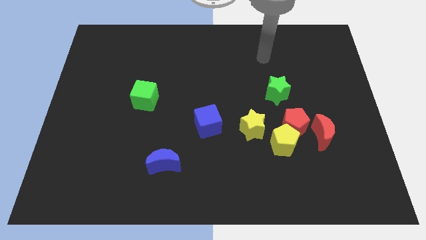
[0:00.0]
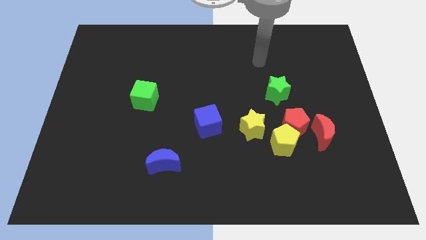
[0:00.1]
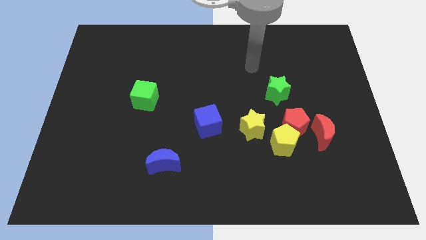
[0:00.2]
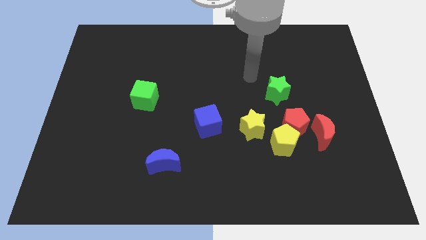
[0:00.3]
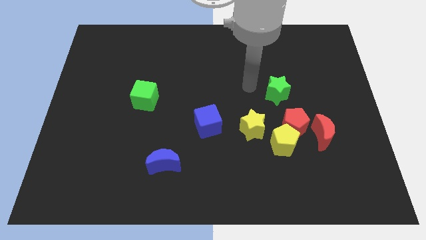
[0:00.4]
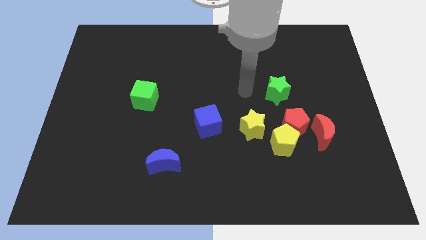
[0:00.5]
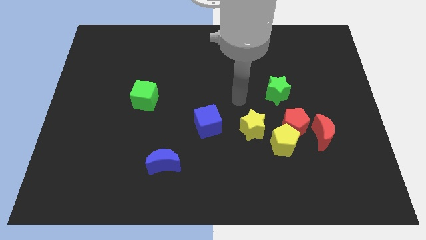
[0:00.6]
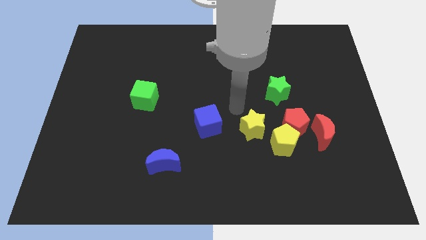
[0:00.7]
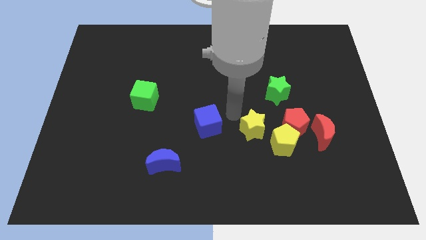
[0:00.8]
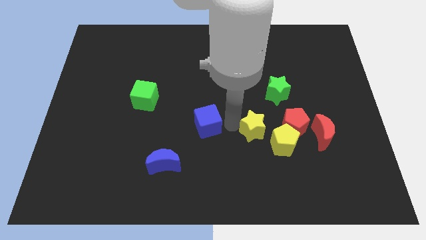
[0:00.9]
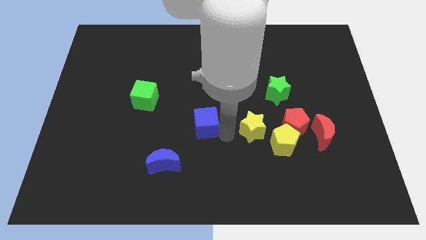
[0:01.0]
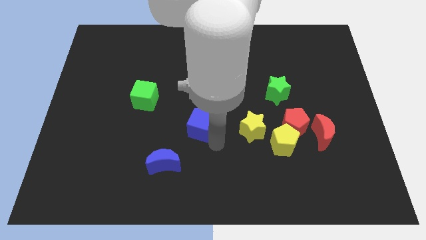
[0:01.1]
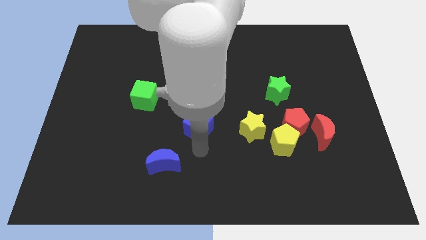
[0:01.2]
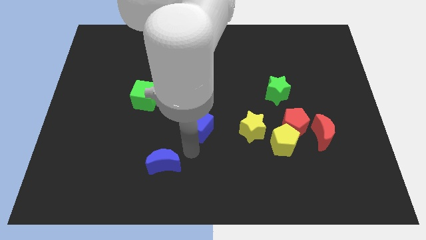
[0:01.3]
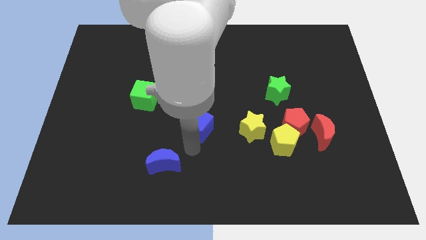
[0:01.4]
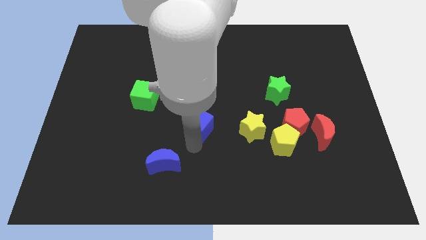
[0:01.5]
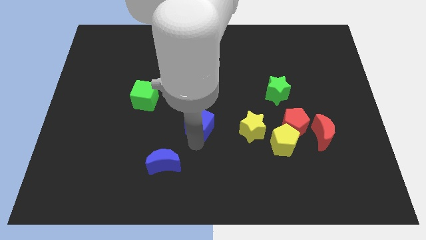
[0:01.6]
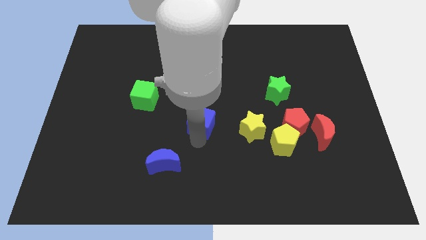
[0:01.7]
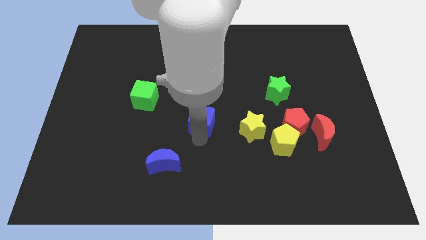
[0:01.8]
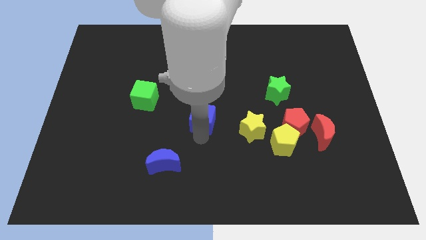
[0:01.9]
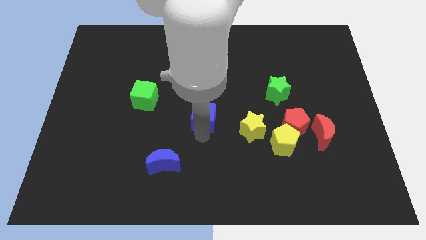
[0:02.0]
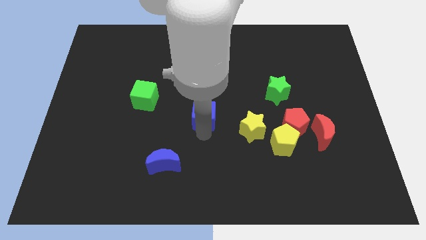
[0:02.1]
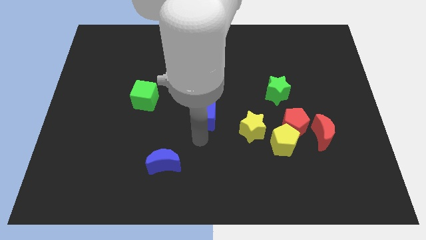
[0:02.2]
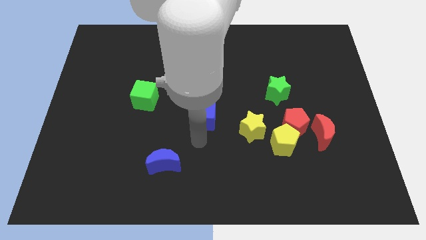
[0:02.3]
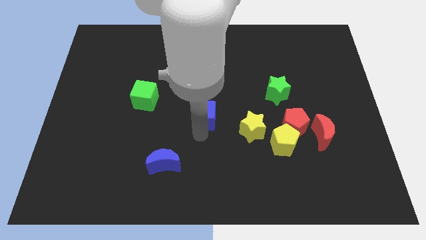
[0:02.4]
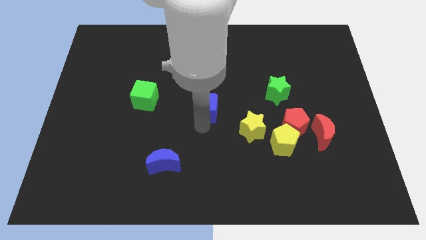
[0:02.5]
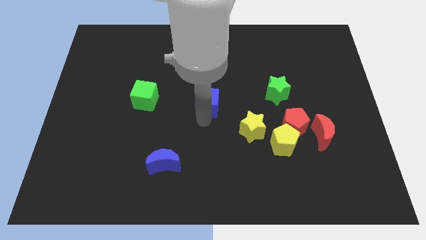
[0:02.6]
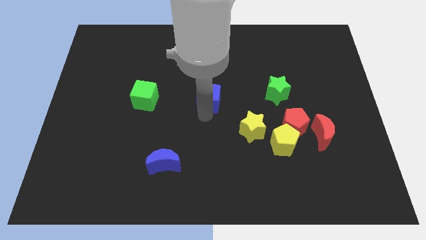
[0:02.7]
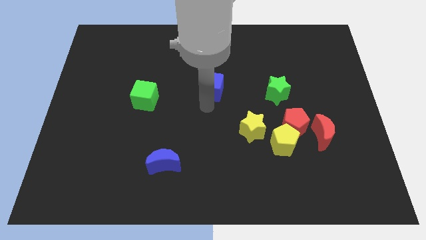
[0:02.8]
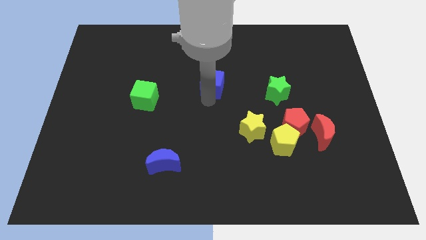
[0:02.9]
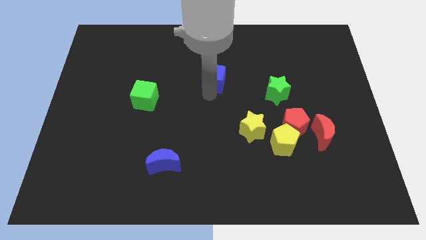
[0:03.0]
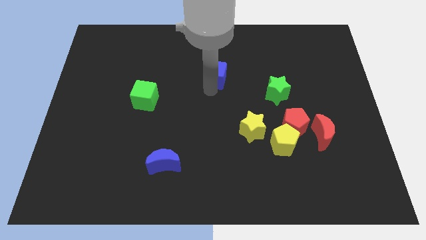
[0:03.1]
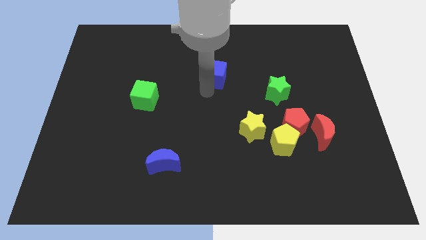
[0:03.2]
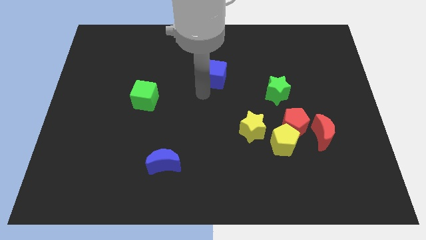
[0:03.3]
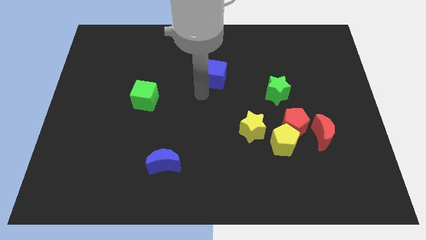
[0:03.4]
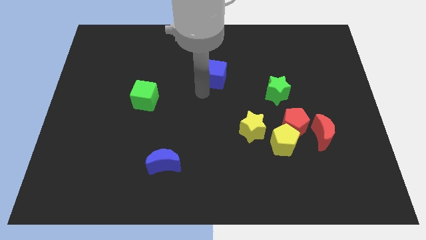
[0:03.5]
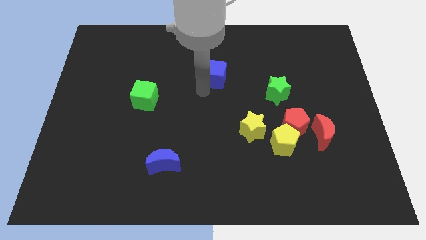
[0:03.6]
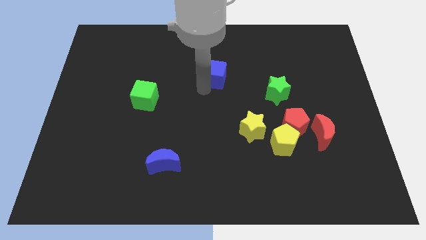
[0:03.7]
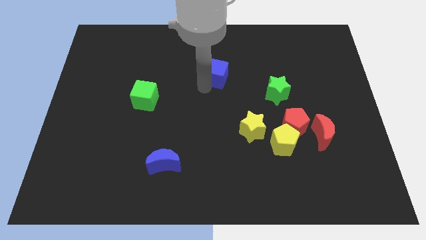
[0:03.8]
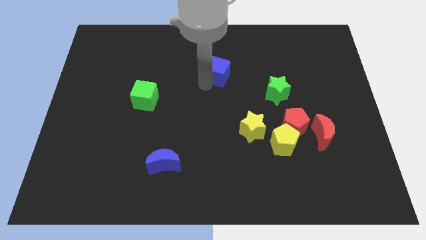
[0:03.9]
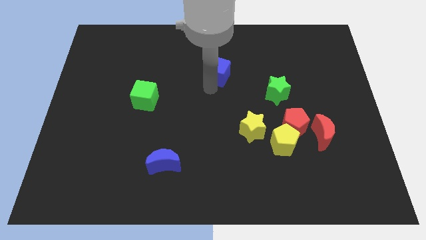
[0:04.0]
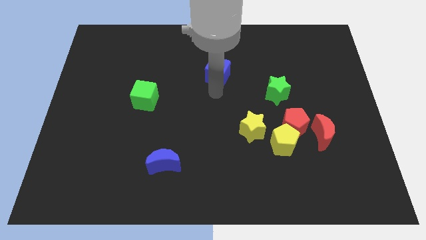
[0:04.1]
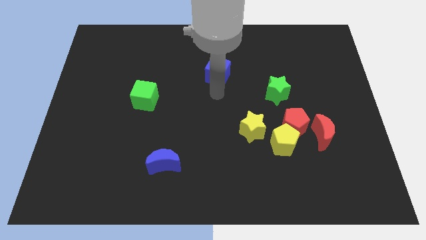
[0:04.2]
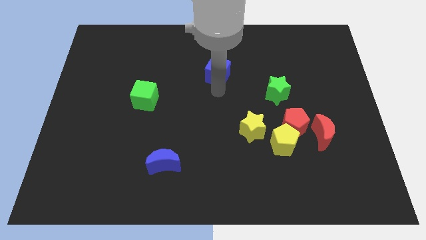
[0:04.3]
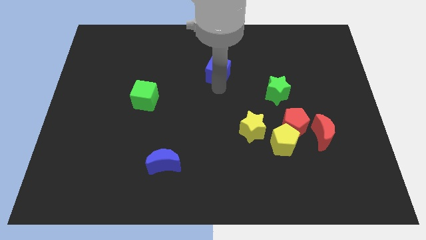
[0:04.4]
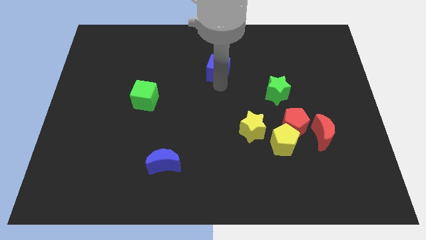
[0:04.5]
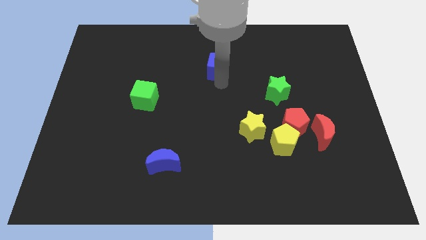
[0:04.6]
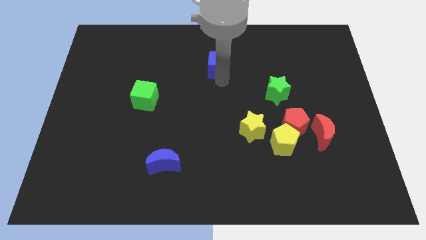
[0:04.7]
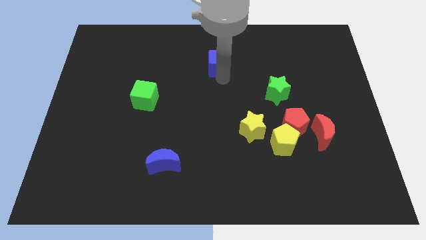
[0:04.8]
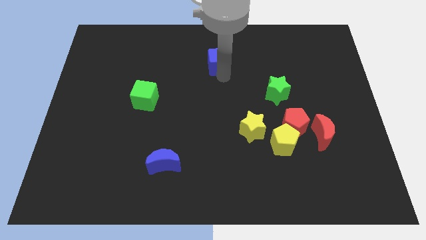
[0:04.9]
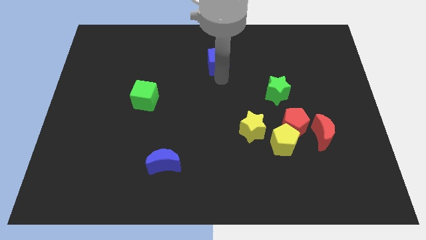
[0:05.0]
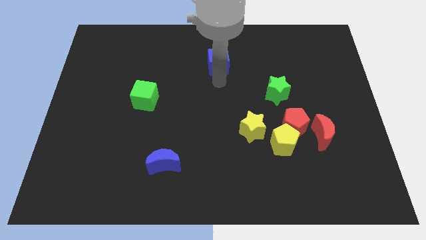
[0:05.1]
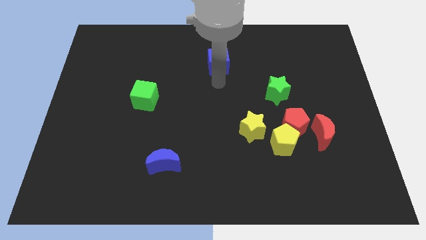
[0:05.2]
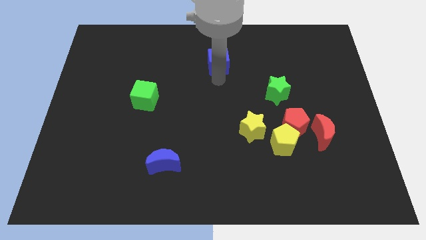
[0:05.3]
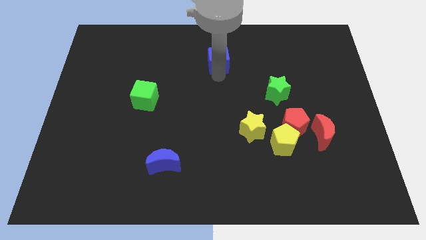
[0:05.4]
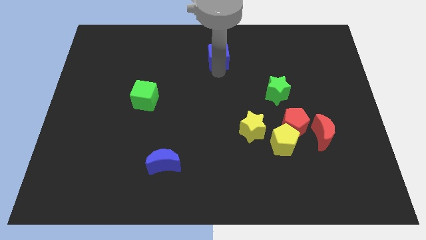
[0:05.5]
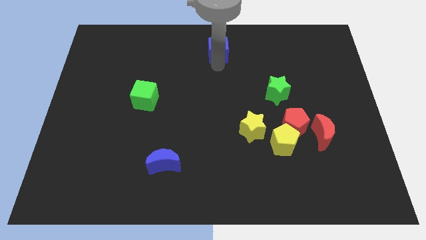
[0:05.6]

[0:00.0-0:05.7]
slide the blue cube to the towards your base

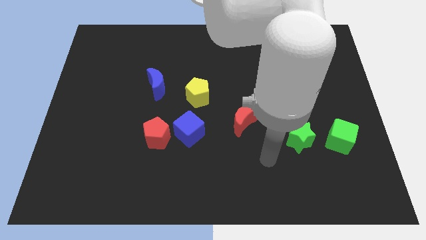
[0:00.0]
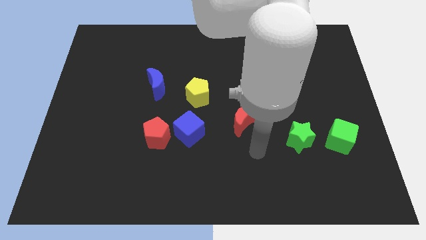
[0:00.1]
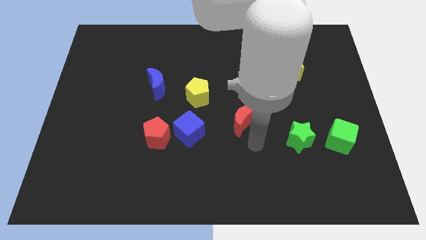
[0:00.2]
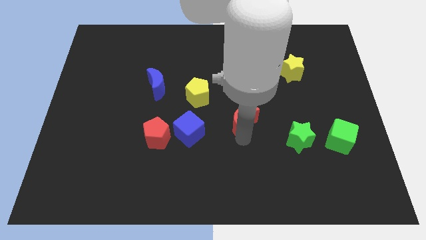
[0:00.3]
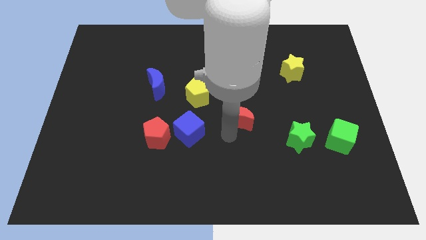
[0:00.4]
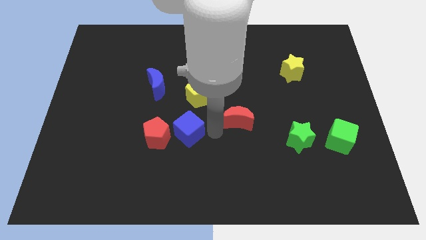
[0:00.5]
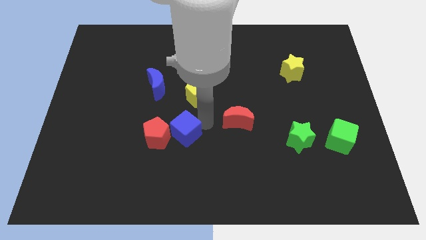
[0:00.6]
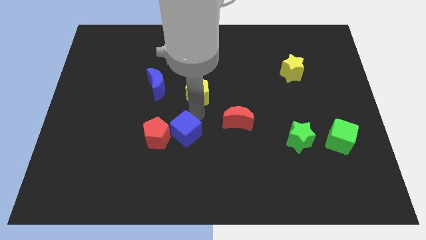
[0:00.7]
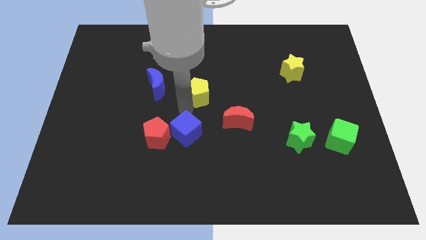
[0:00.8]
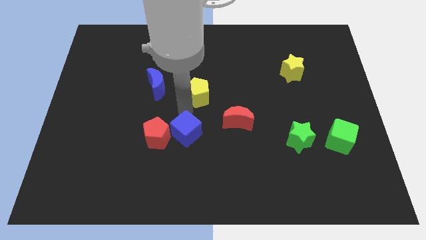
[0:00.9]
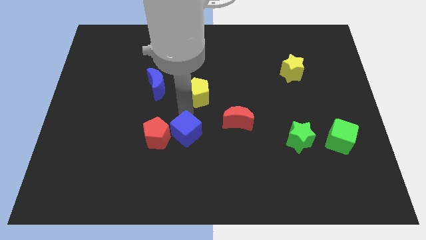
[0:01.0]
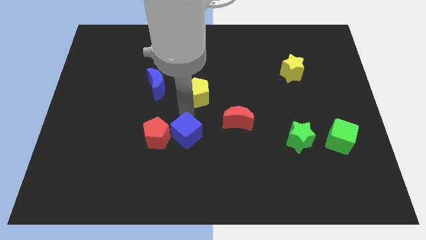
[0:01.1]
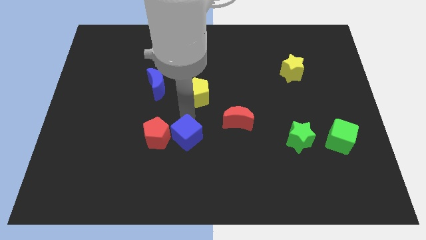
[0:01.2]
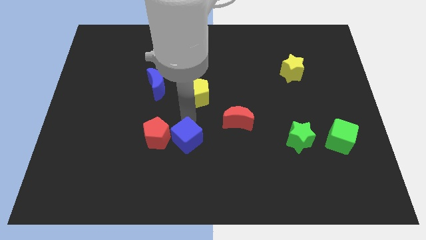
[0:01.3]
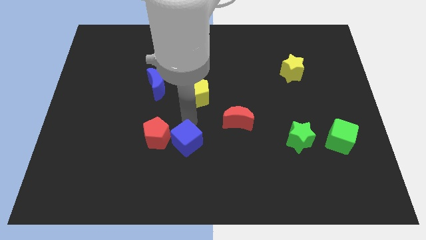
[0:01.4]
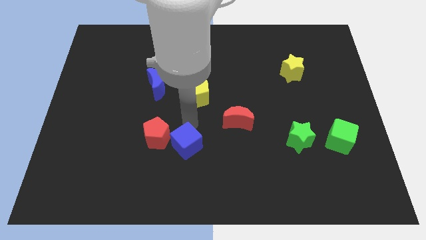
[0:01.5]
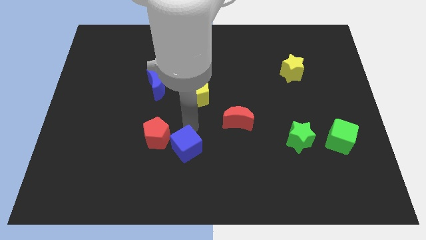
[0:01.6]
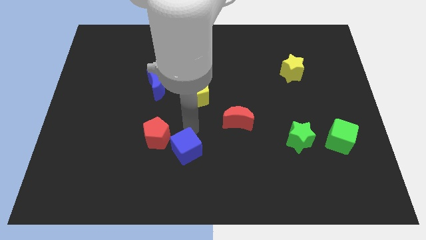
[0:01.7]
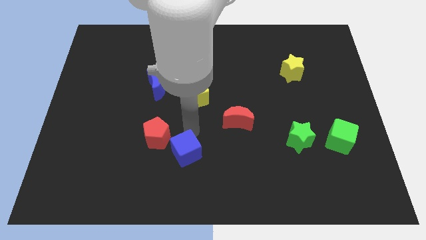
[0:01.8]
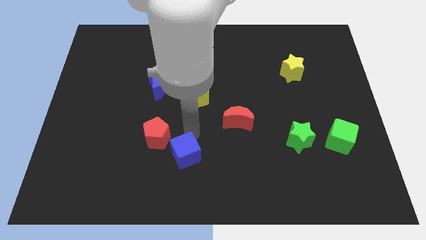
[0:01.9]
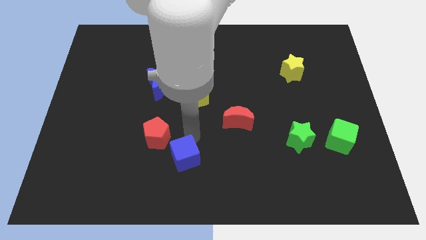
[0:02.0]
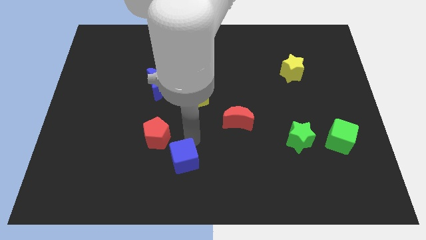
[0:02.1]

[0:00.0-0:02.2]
move the blue cube to the bottom side
